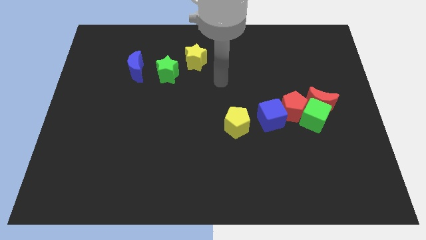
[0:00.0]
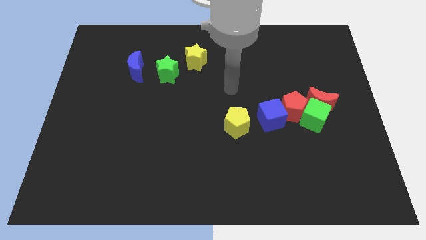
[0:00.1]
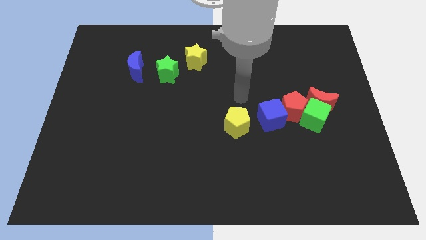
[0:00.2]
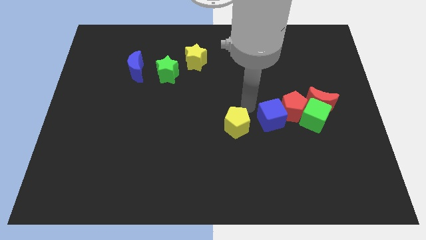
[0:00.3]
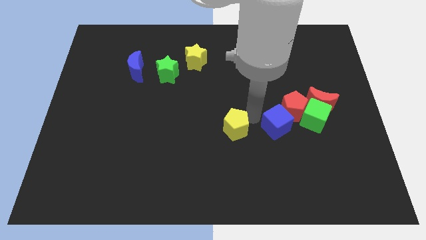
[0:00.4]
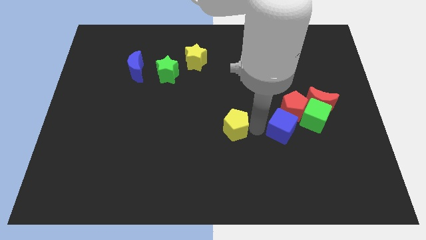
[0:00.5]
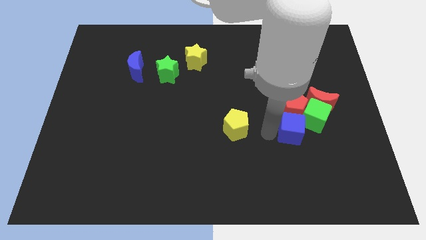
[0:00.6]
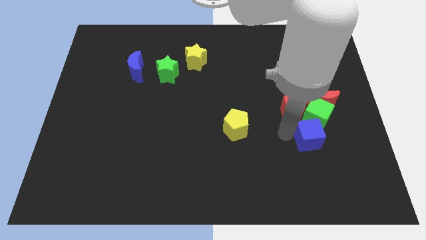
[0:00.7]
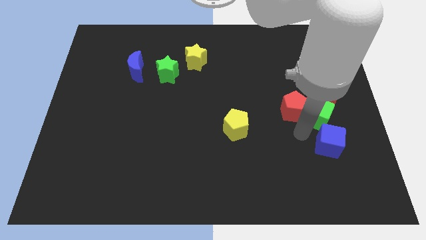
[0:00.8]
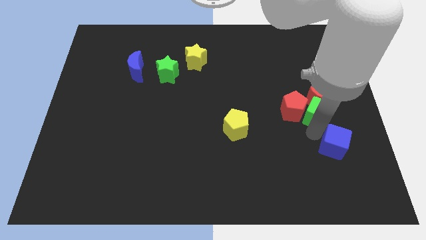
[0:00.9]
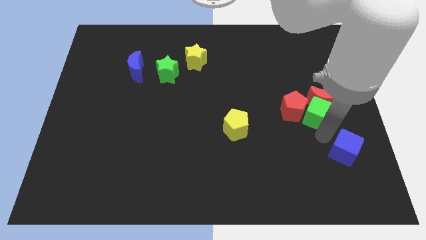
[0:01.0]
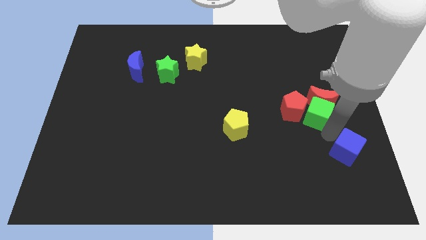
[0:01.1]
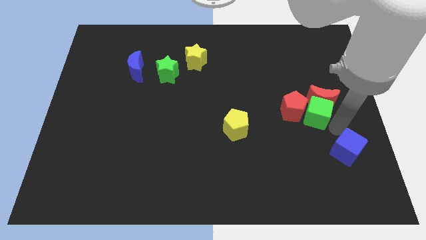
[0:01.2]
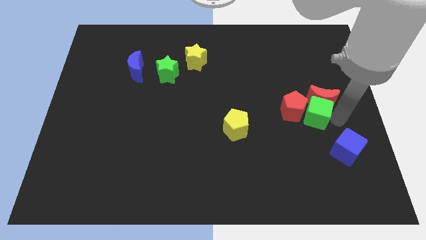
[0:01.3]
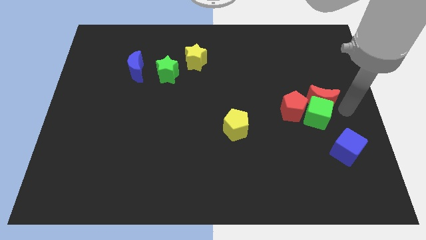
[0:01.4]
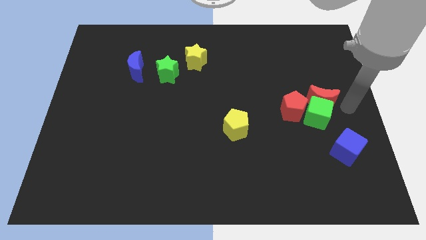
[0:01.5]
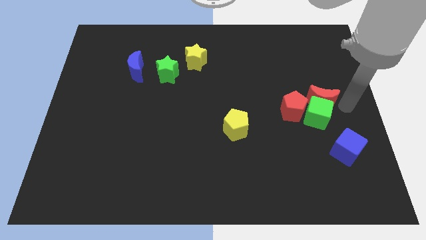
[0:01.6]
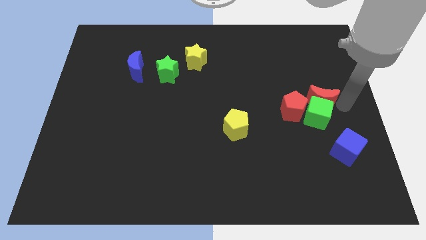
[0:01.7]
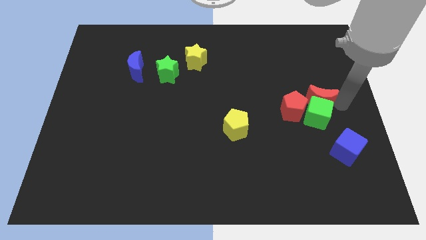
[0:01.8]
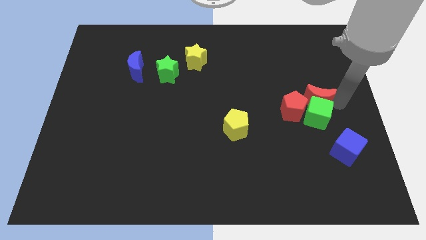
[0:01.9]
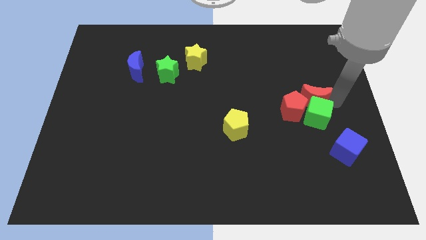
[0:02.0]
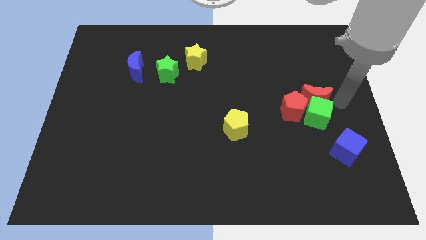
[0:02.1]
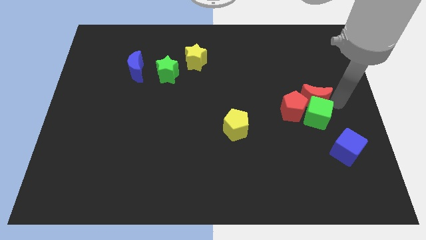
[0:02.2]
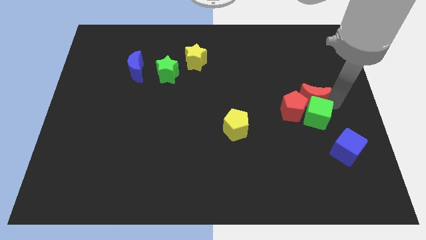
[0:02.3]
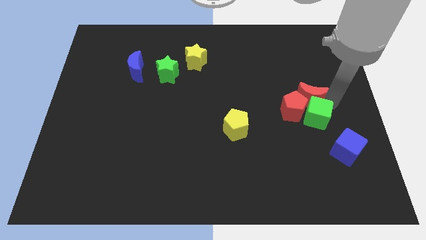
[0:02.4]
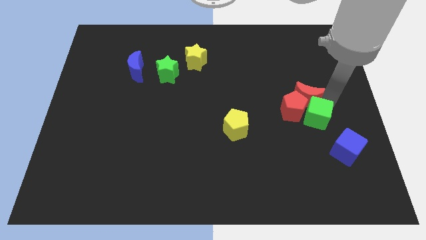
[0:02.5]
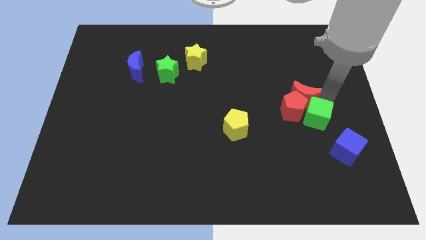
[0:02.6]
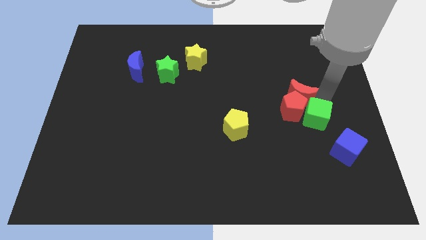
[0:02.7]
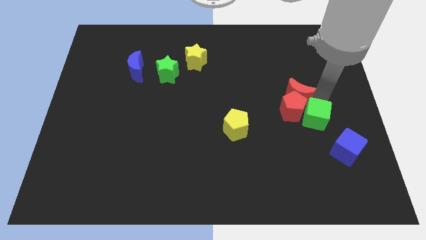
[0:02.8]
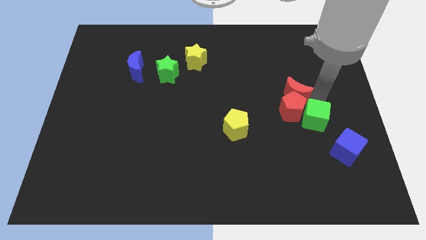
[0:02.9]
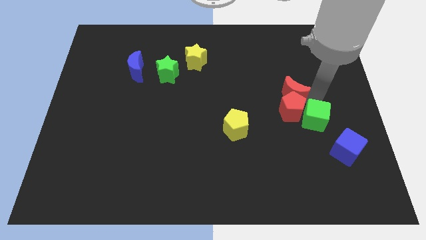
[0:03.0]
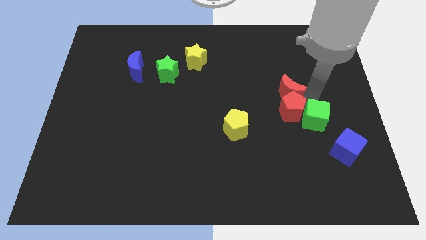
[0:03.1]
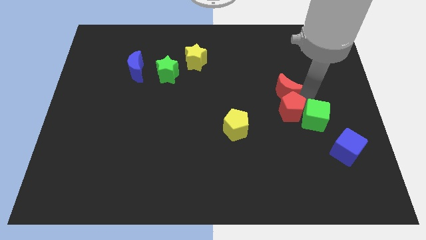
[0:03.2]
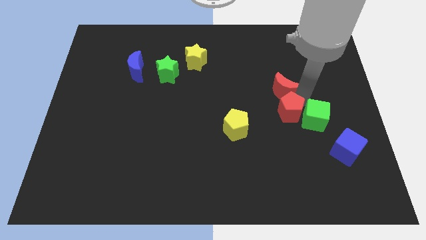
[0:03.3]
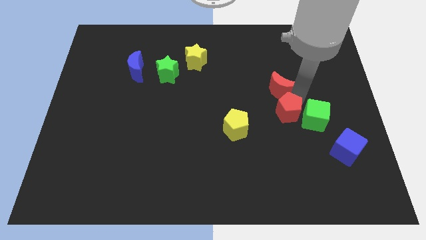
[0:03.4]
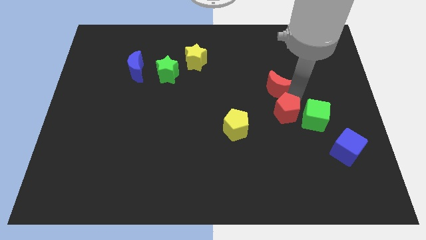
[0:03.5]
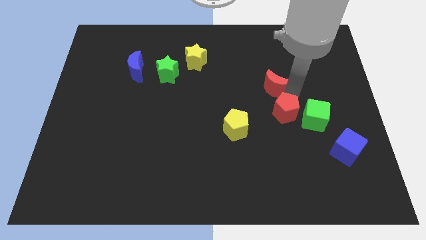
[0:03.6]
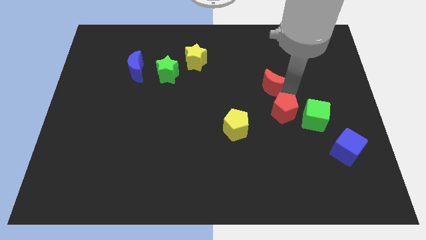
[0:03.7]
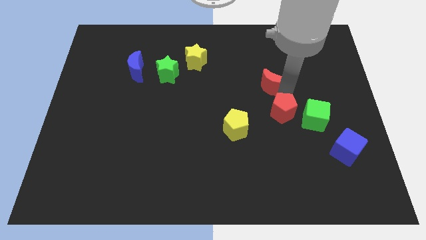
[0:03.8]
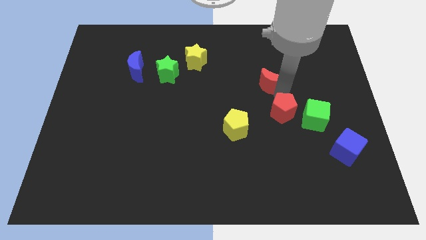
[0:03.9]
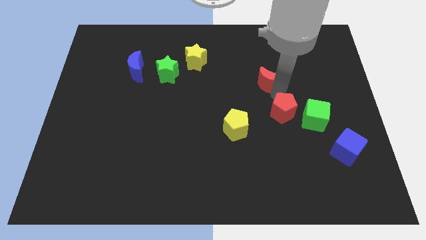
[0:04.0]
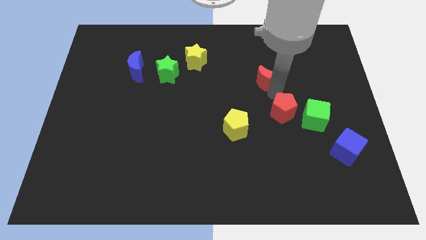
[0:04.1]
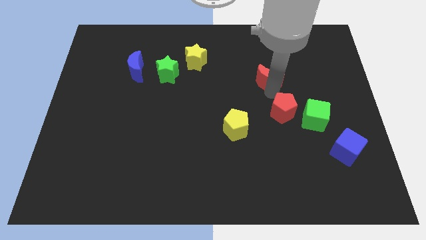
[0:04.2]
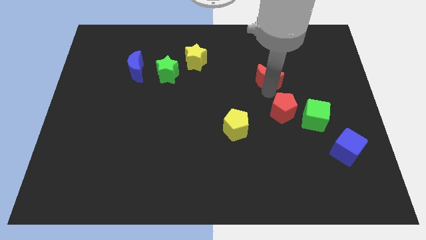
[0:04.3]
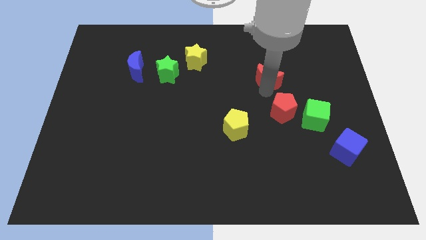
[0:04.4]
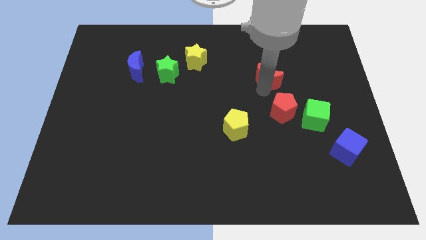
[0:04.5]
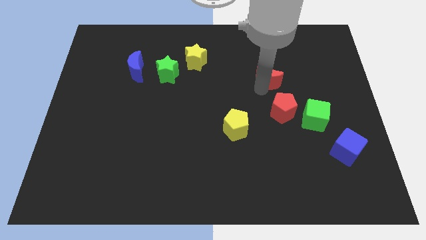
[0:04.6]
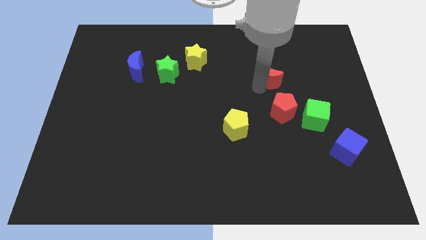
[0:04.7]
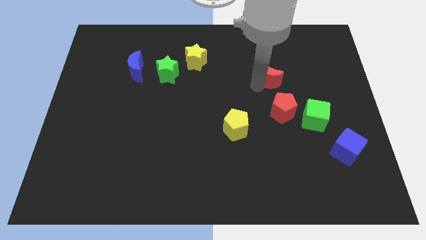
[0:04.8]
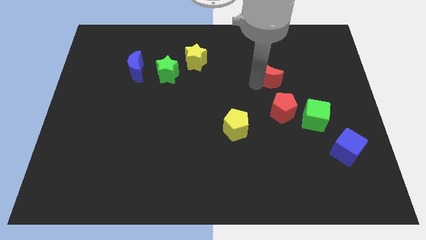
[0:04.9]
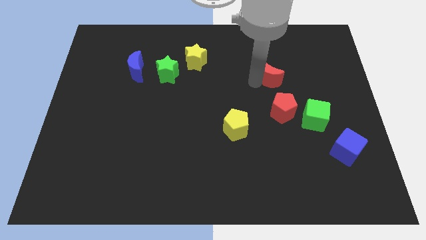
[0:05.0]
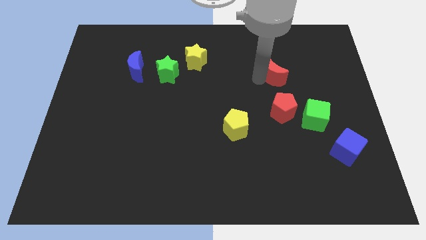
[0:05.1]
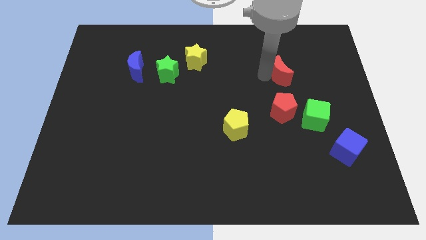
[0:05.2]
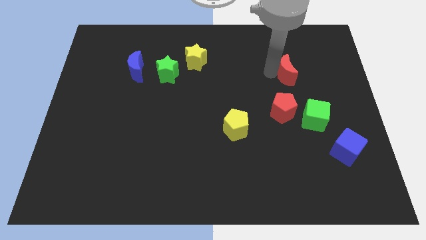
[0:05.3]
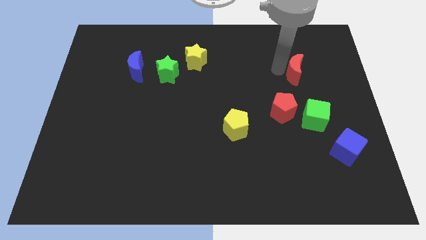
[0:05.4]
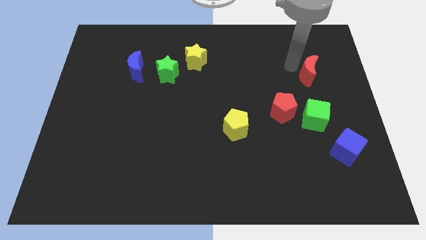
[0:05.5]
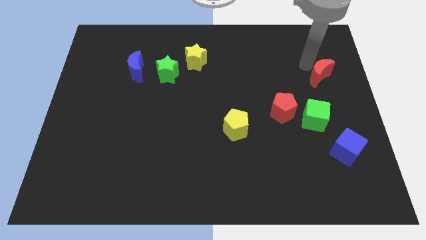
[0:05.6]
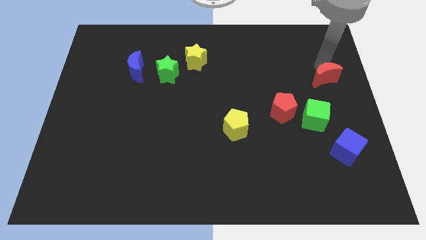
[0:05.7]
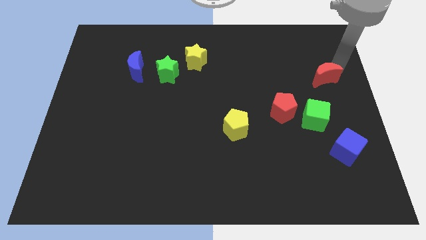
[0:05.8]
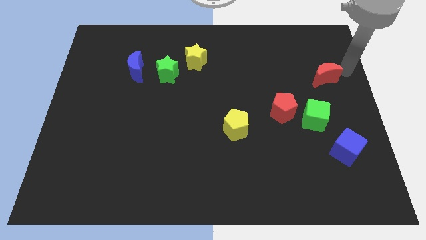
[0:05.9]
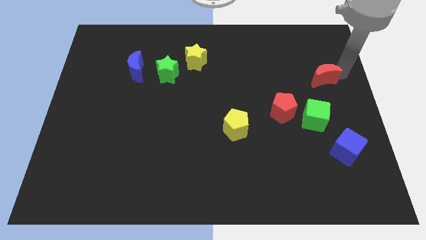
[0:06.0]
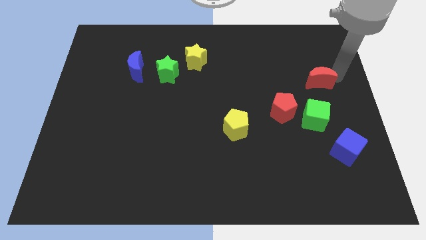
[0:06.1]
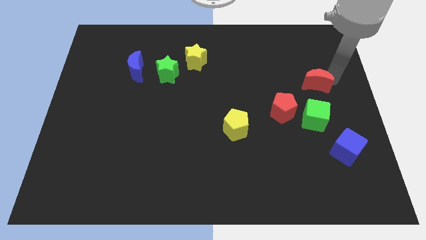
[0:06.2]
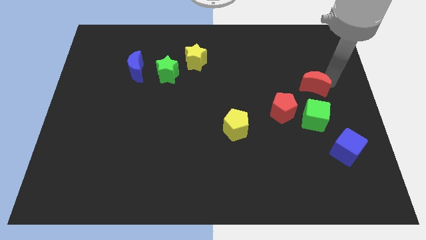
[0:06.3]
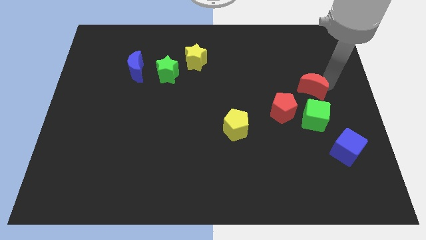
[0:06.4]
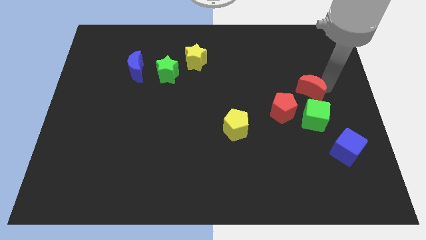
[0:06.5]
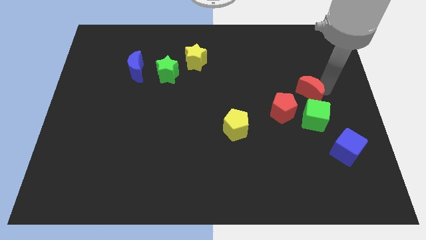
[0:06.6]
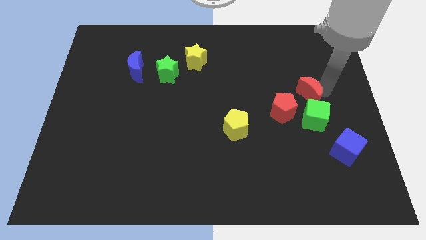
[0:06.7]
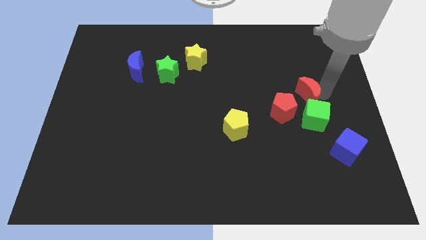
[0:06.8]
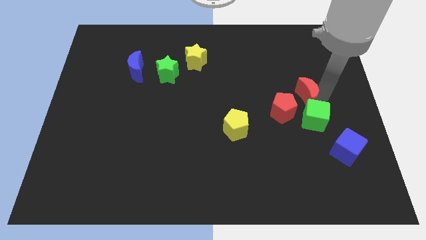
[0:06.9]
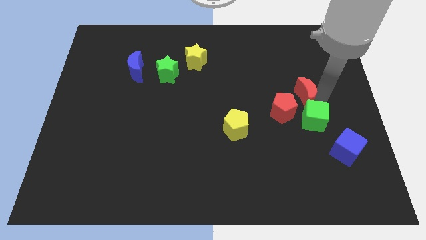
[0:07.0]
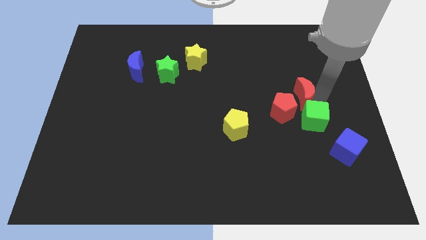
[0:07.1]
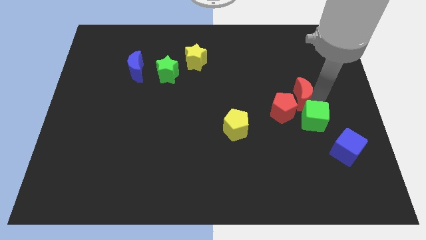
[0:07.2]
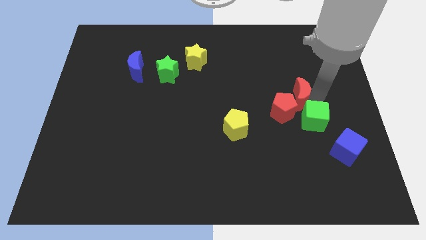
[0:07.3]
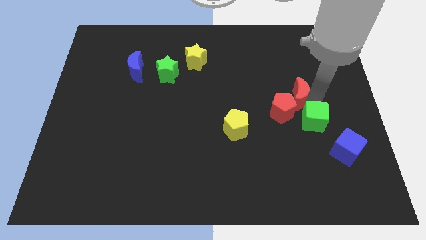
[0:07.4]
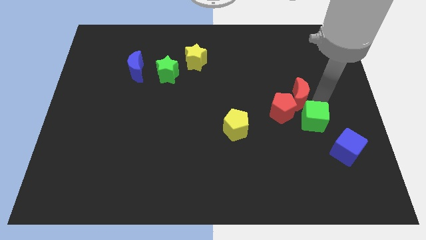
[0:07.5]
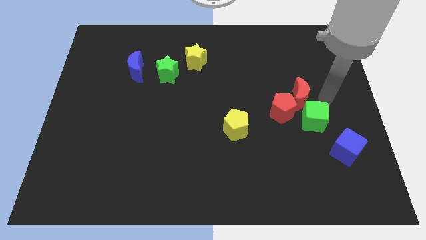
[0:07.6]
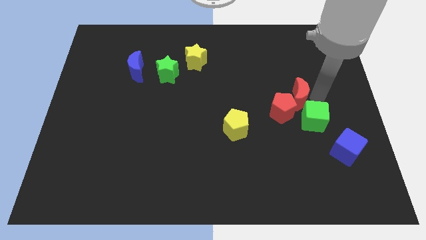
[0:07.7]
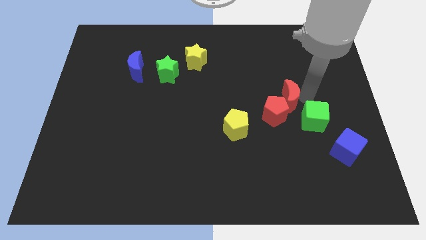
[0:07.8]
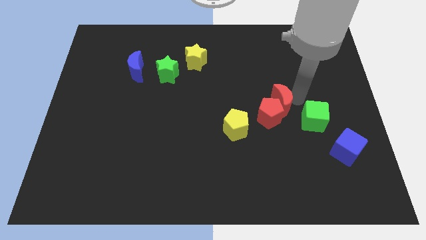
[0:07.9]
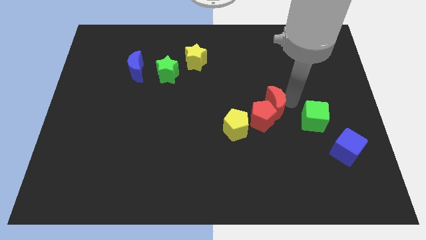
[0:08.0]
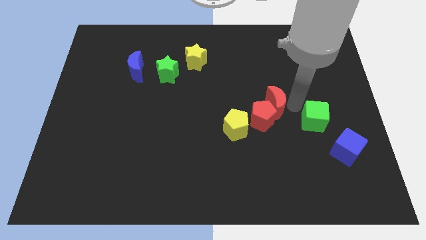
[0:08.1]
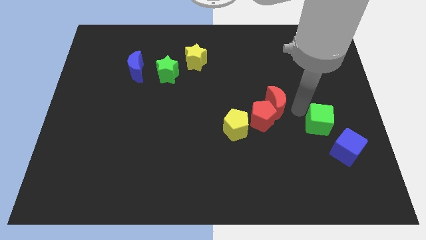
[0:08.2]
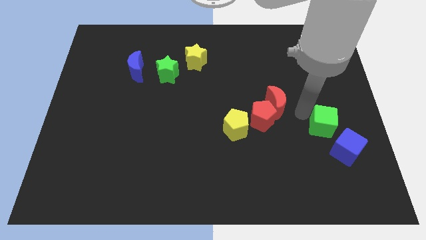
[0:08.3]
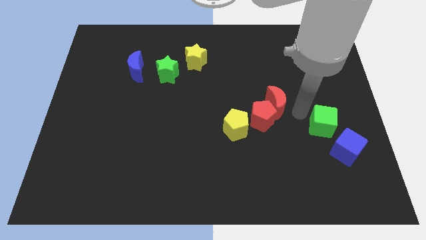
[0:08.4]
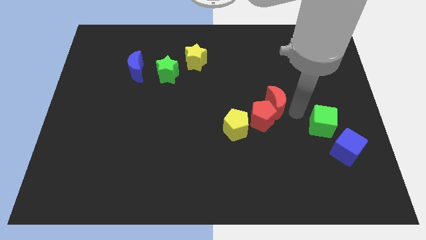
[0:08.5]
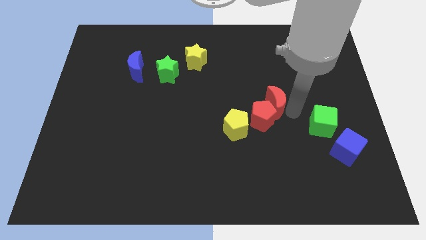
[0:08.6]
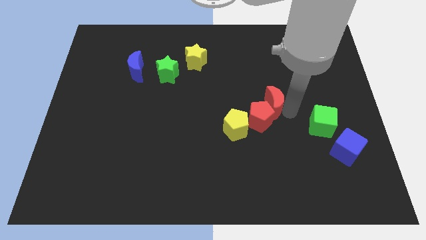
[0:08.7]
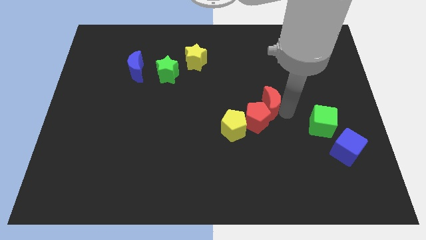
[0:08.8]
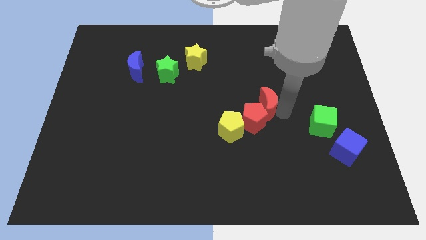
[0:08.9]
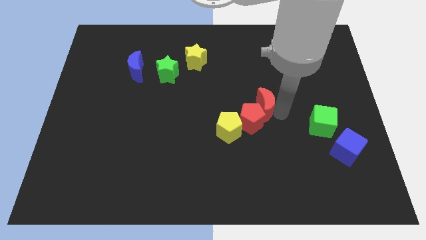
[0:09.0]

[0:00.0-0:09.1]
put the red moon to the middle of the board
